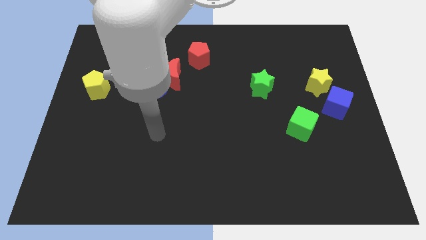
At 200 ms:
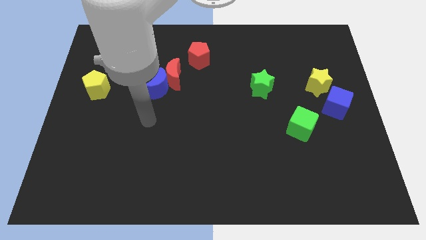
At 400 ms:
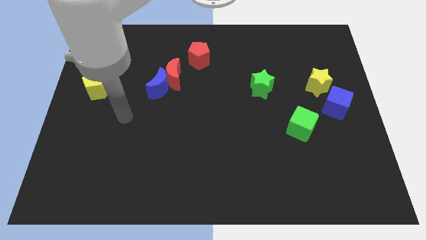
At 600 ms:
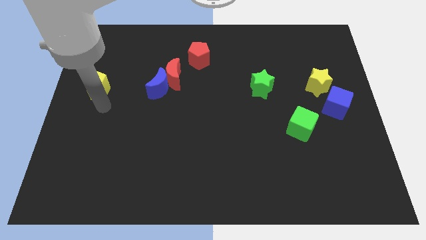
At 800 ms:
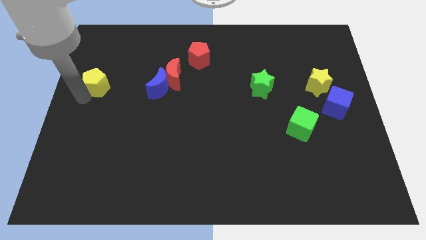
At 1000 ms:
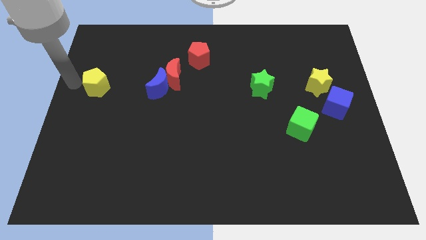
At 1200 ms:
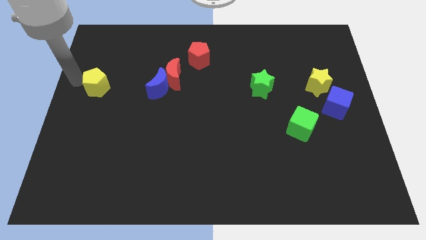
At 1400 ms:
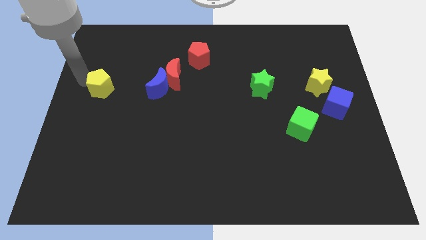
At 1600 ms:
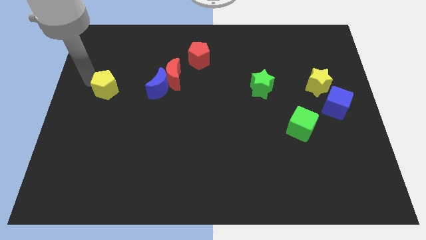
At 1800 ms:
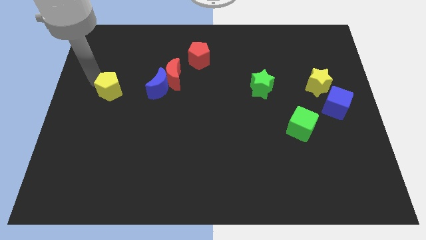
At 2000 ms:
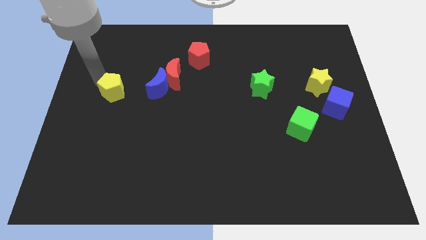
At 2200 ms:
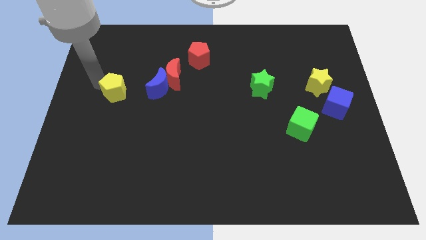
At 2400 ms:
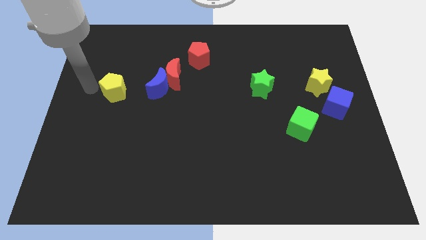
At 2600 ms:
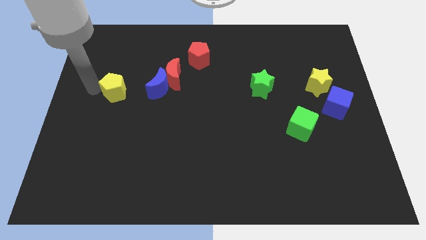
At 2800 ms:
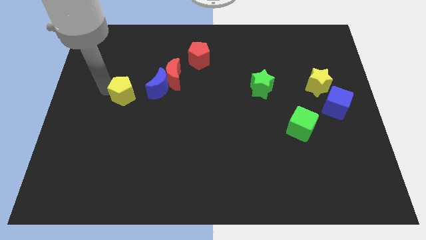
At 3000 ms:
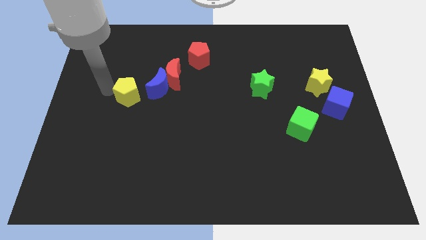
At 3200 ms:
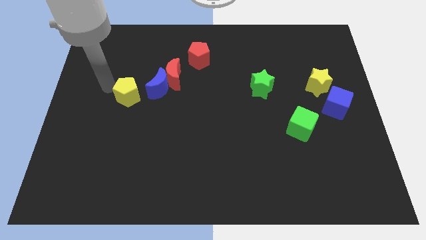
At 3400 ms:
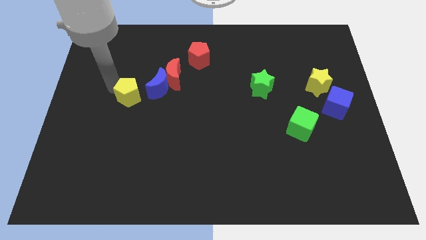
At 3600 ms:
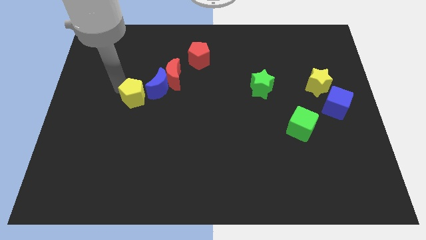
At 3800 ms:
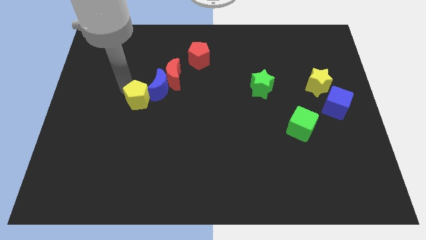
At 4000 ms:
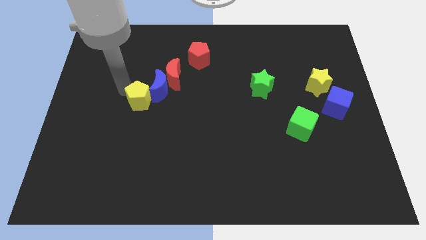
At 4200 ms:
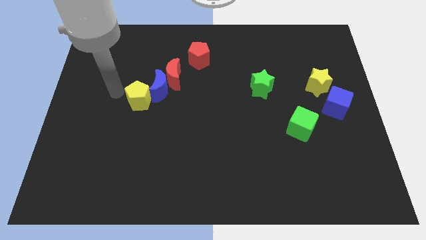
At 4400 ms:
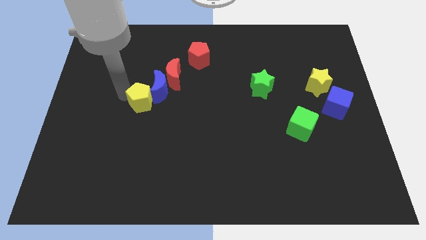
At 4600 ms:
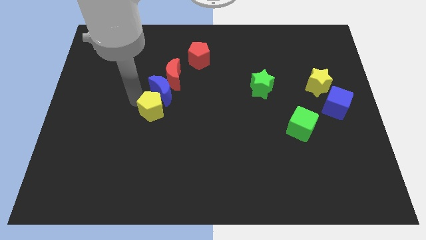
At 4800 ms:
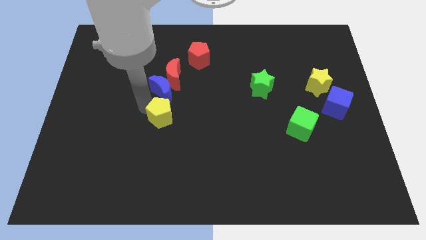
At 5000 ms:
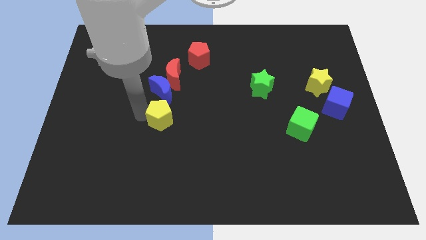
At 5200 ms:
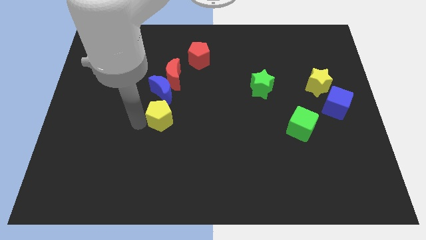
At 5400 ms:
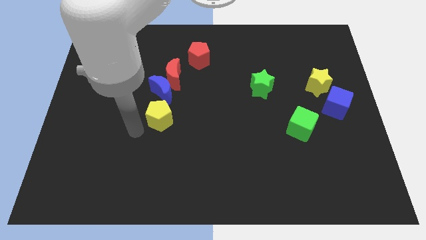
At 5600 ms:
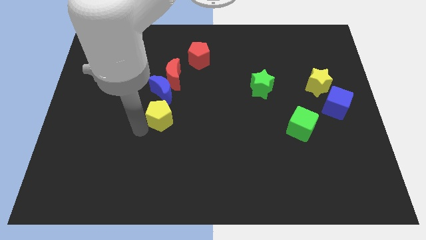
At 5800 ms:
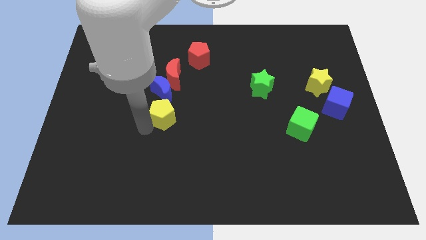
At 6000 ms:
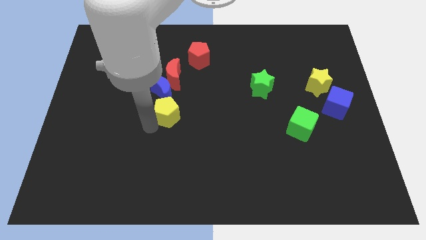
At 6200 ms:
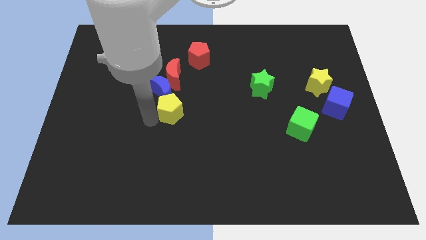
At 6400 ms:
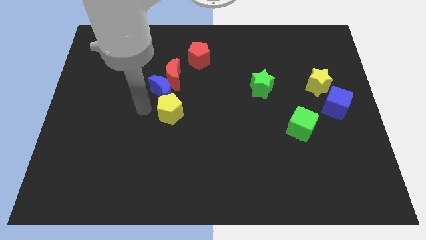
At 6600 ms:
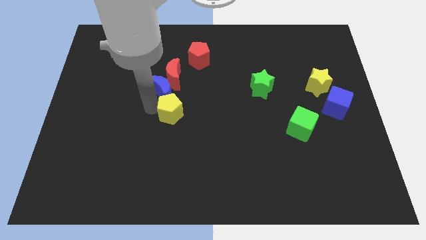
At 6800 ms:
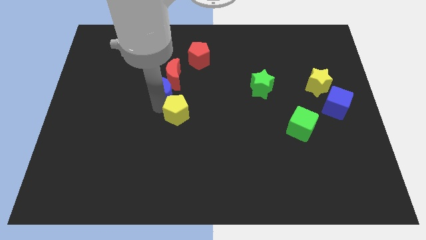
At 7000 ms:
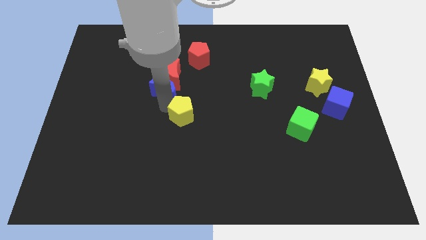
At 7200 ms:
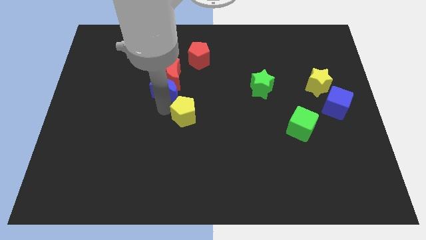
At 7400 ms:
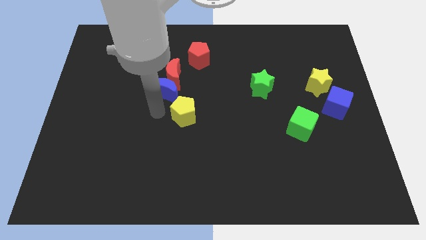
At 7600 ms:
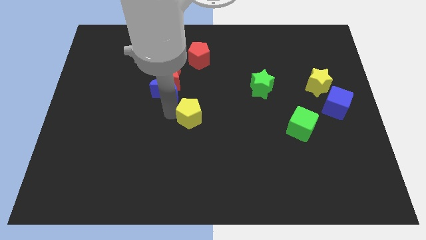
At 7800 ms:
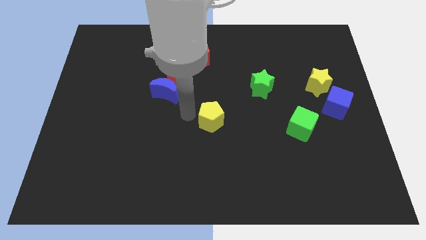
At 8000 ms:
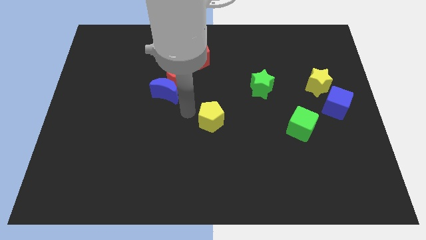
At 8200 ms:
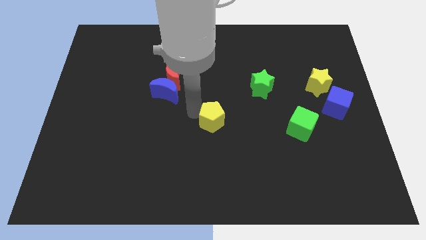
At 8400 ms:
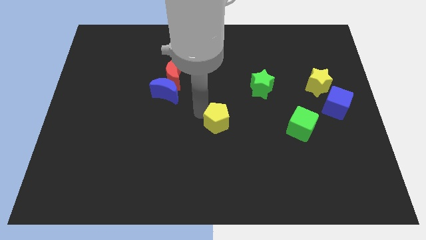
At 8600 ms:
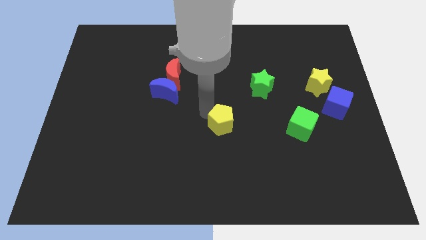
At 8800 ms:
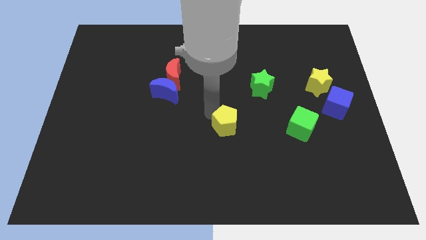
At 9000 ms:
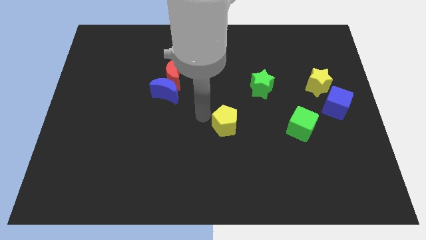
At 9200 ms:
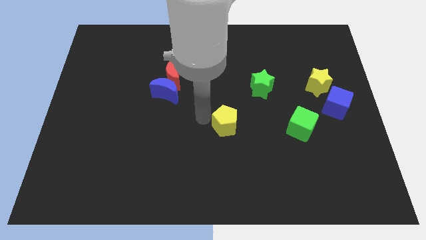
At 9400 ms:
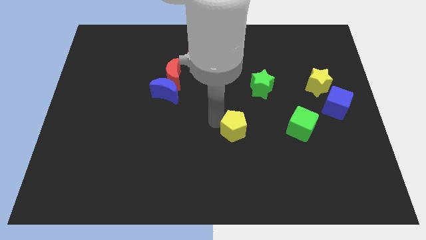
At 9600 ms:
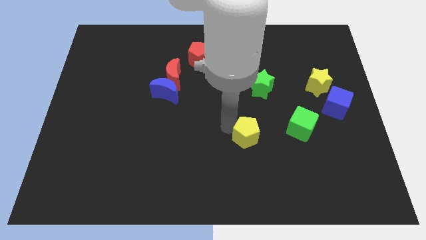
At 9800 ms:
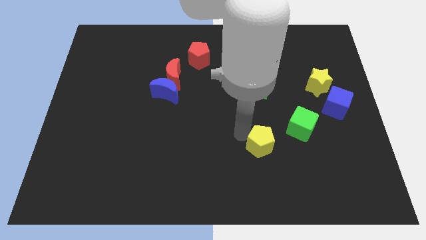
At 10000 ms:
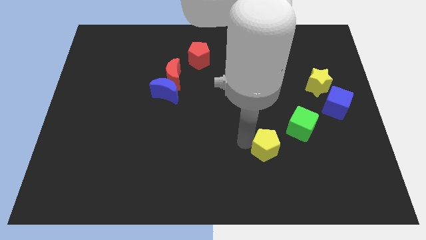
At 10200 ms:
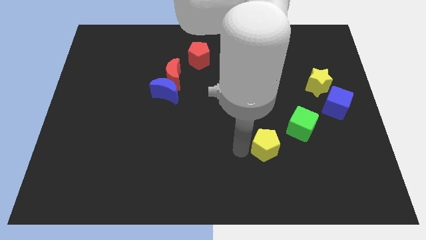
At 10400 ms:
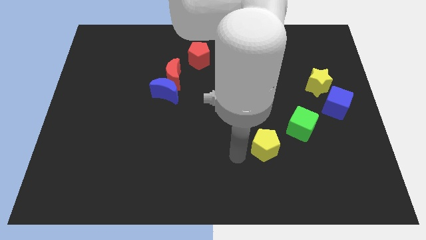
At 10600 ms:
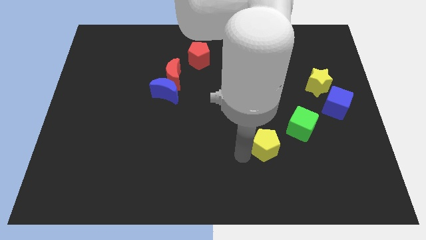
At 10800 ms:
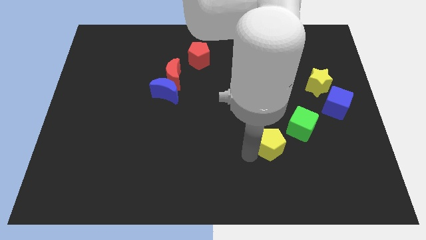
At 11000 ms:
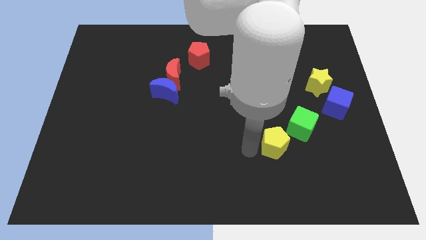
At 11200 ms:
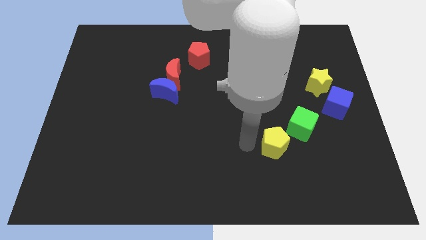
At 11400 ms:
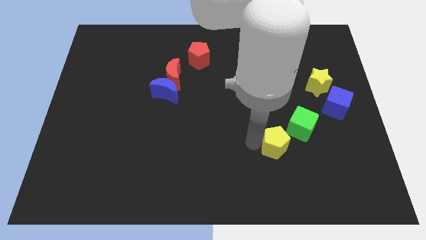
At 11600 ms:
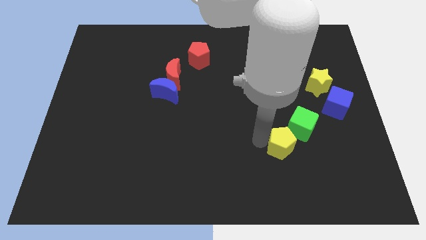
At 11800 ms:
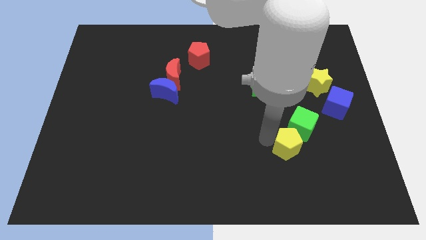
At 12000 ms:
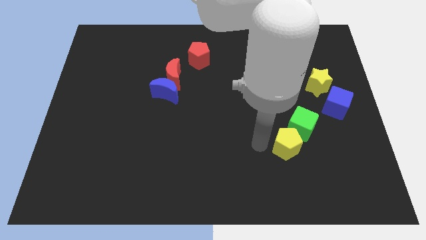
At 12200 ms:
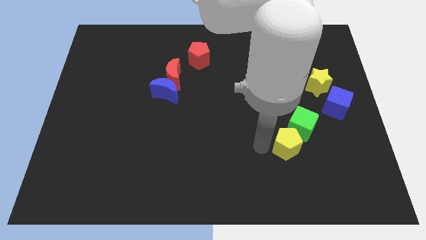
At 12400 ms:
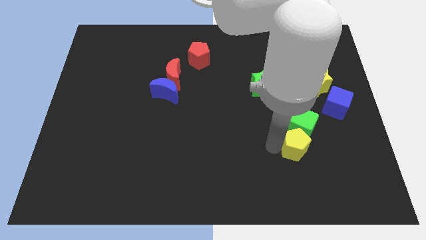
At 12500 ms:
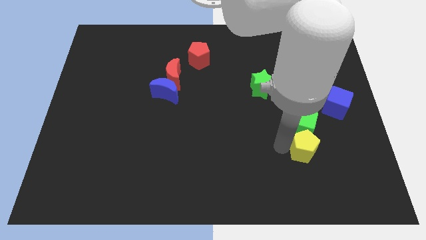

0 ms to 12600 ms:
push the yellow pentagon to the bottom right of the green cube

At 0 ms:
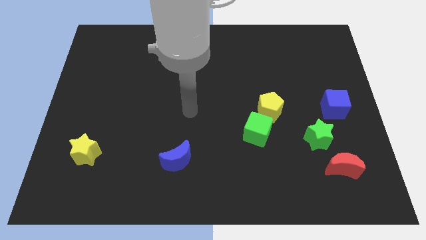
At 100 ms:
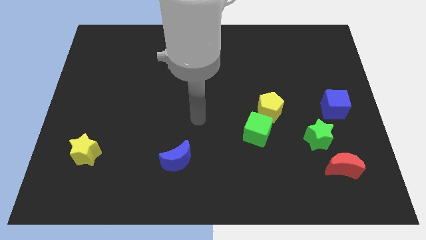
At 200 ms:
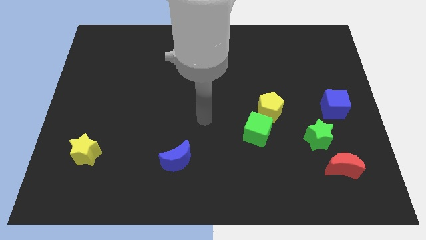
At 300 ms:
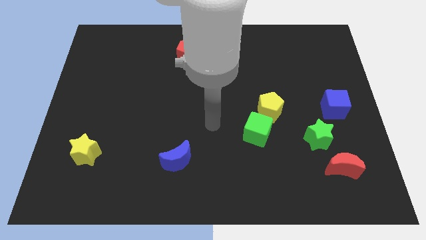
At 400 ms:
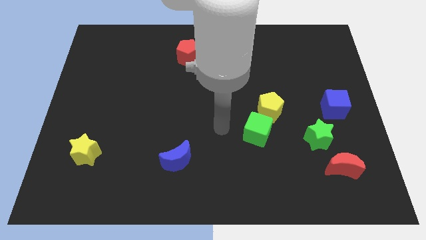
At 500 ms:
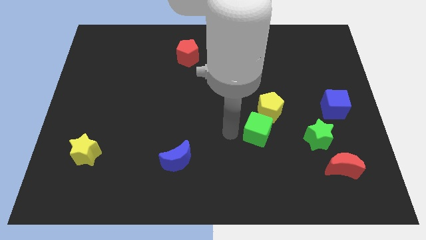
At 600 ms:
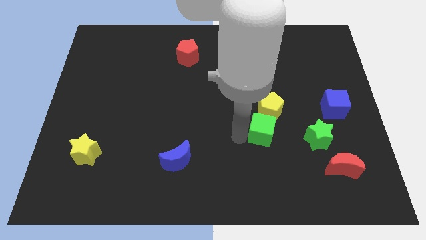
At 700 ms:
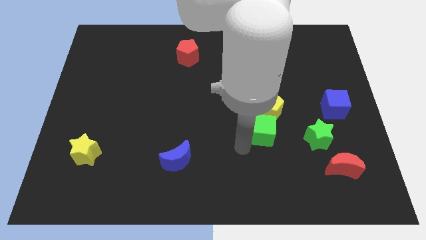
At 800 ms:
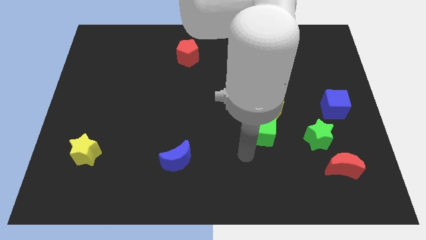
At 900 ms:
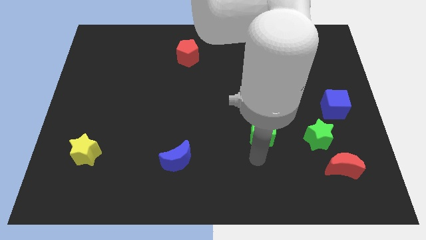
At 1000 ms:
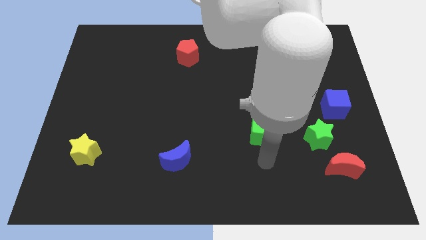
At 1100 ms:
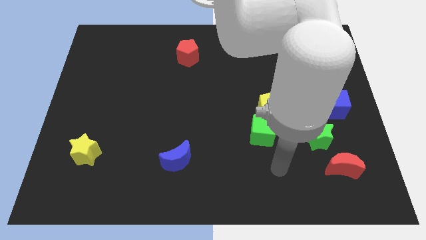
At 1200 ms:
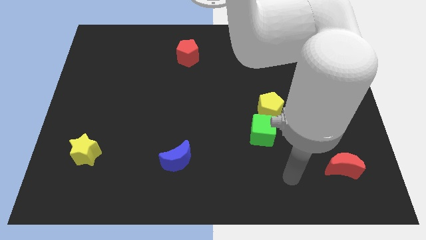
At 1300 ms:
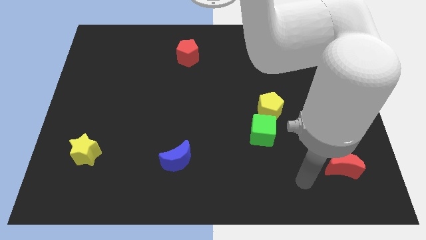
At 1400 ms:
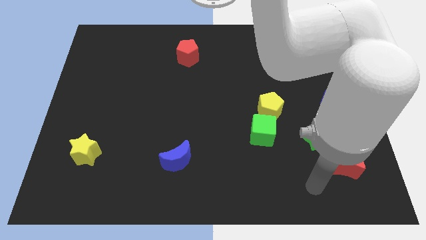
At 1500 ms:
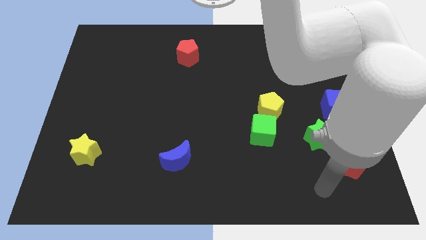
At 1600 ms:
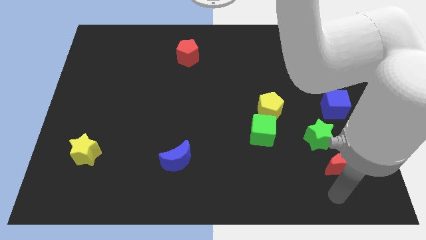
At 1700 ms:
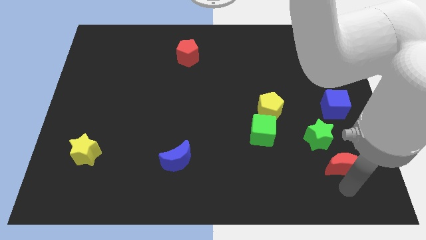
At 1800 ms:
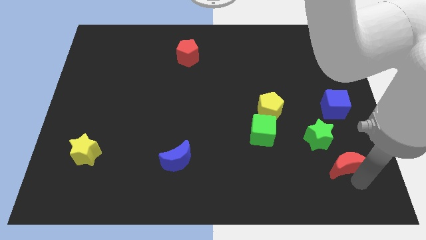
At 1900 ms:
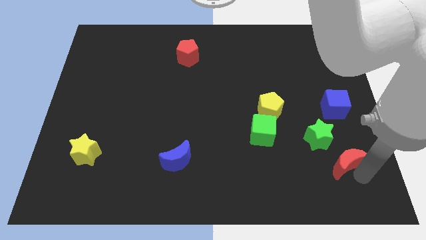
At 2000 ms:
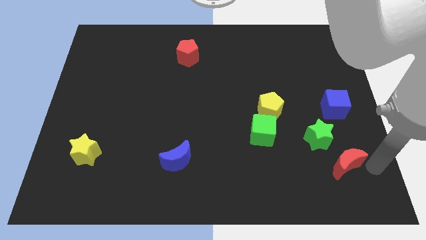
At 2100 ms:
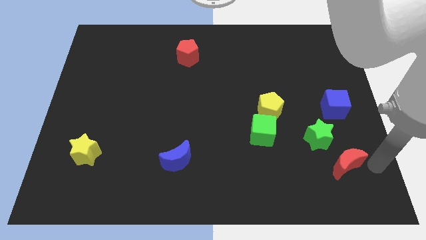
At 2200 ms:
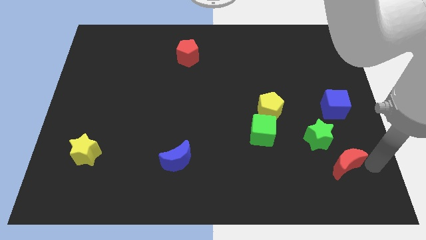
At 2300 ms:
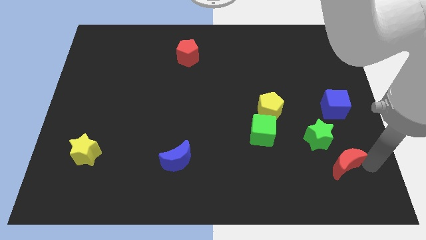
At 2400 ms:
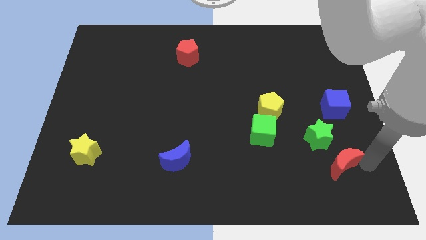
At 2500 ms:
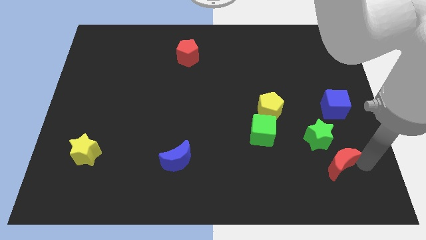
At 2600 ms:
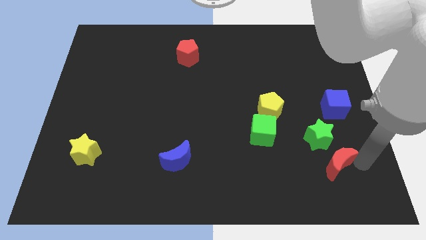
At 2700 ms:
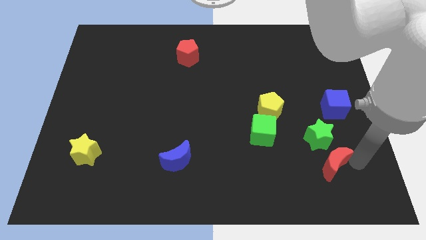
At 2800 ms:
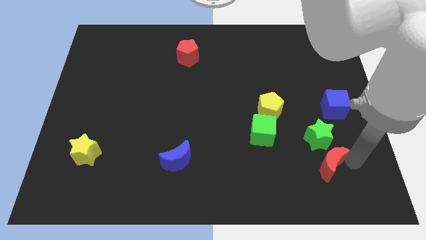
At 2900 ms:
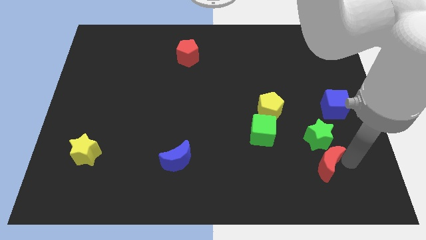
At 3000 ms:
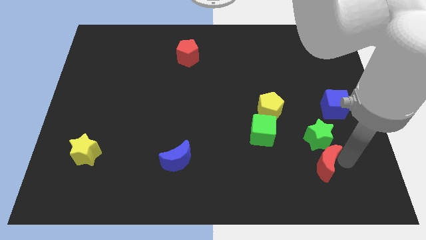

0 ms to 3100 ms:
push the red moon to the bottom left side of the green star
